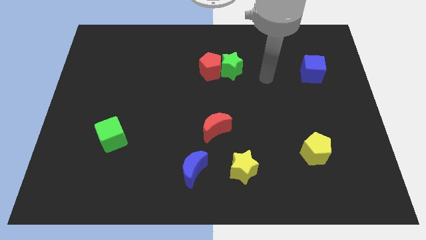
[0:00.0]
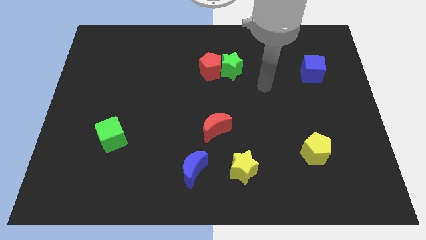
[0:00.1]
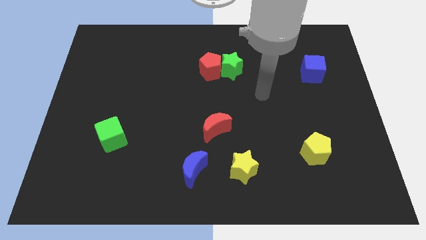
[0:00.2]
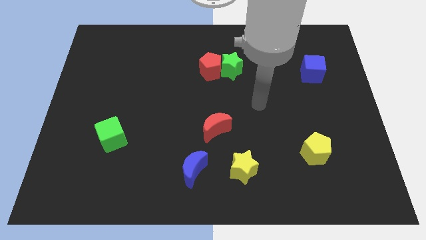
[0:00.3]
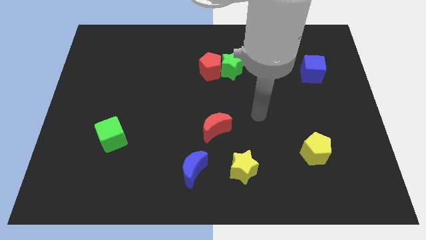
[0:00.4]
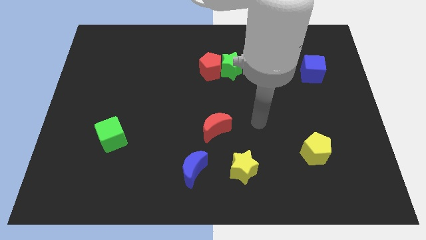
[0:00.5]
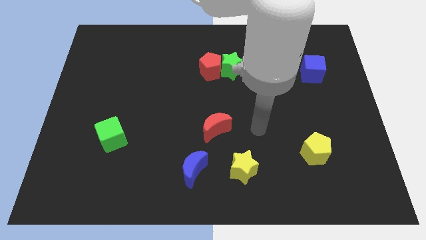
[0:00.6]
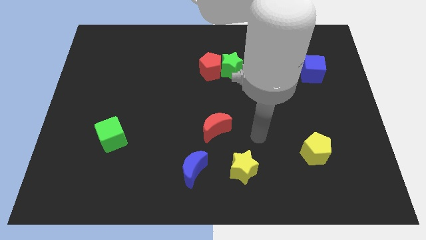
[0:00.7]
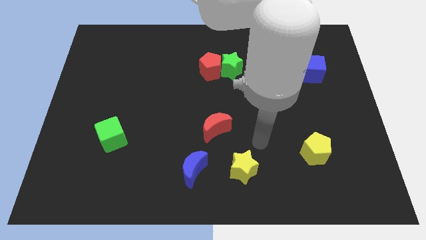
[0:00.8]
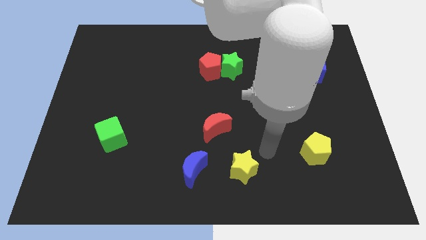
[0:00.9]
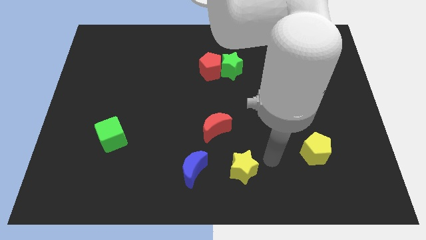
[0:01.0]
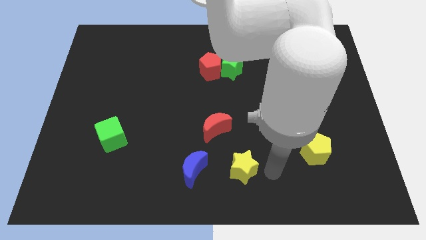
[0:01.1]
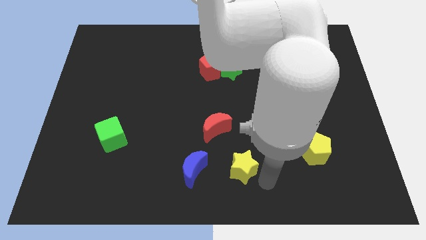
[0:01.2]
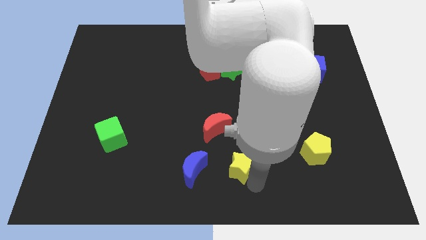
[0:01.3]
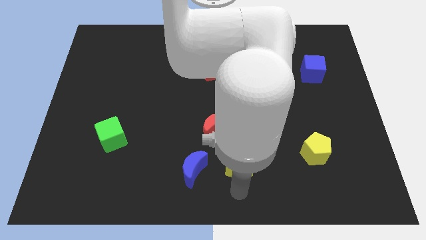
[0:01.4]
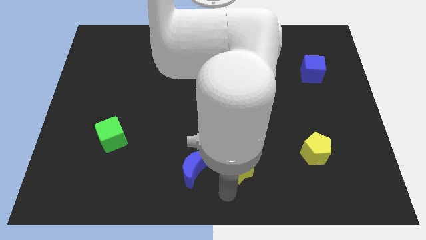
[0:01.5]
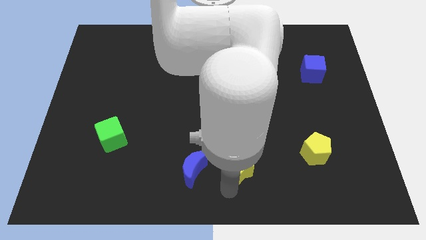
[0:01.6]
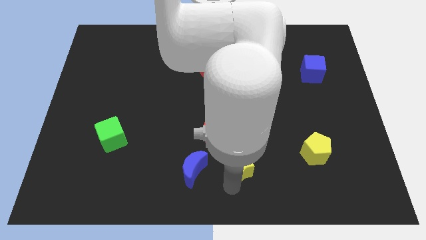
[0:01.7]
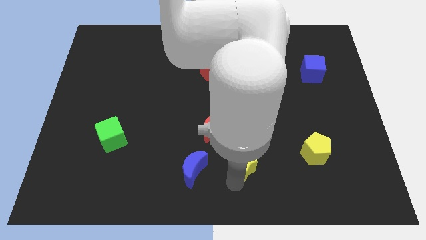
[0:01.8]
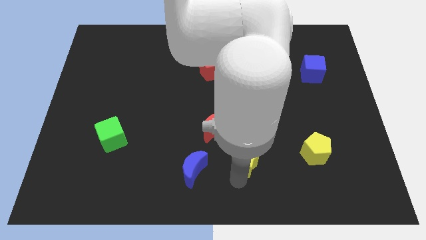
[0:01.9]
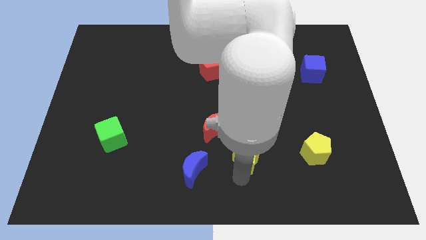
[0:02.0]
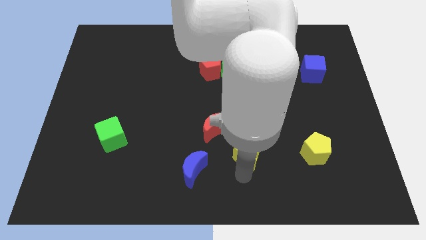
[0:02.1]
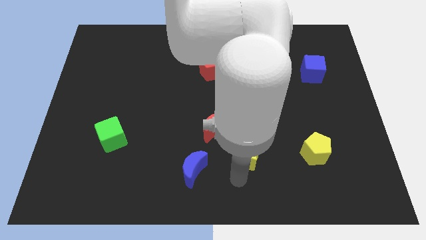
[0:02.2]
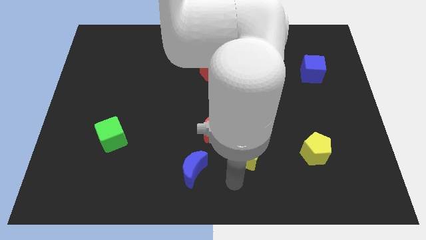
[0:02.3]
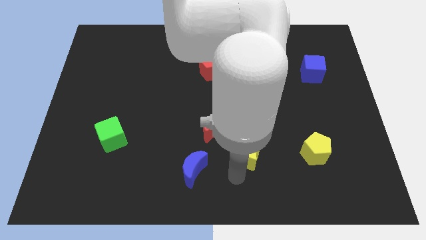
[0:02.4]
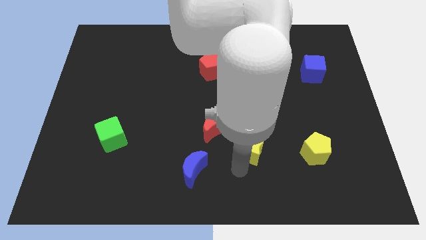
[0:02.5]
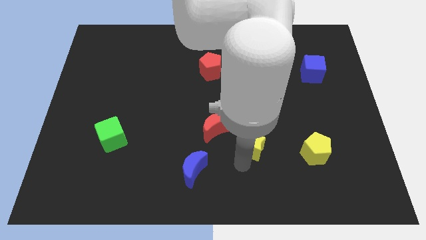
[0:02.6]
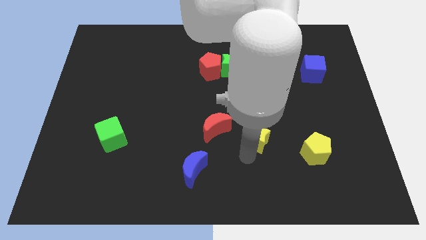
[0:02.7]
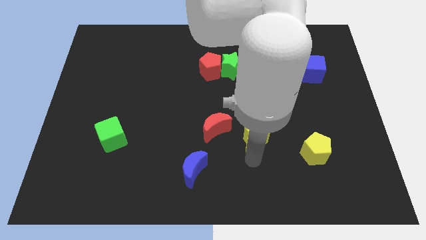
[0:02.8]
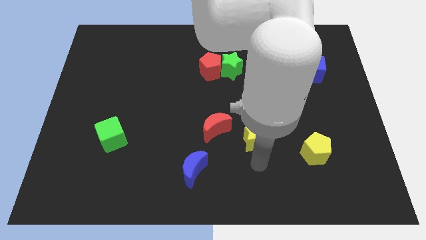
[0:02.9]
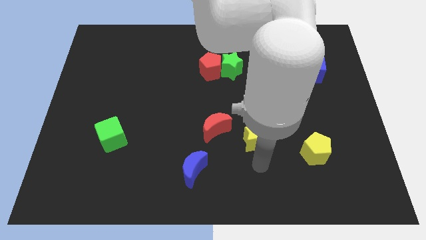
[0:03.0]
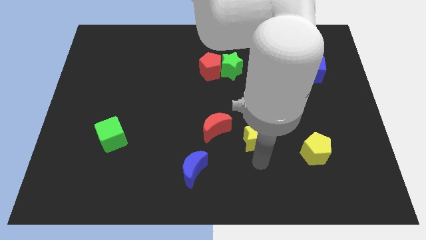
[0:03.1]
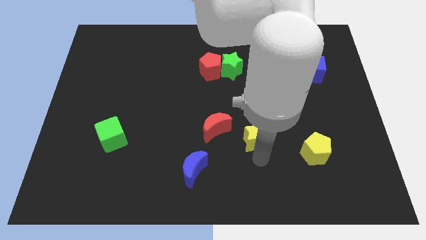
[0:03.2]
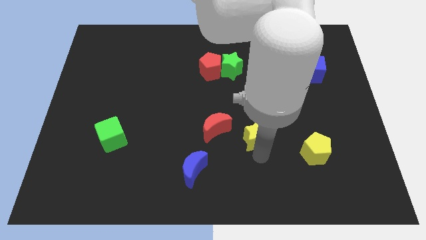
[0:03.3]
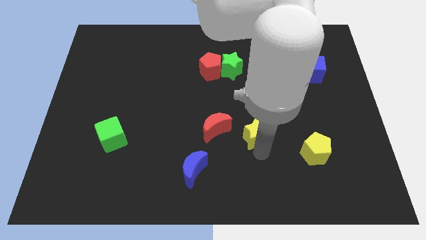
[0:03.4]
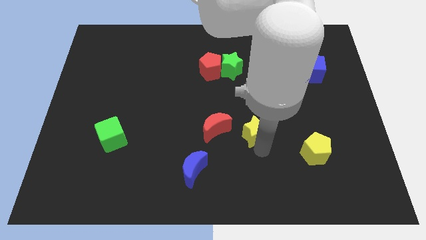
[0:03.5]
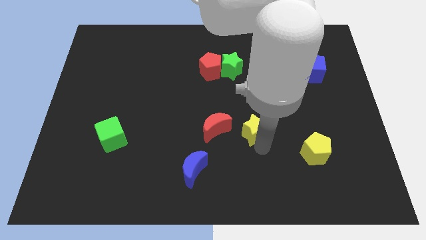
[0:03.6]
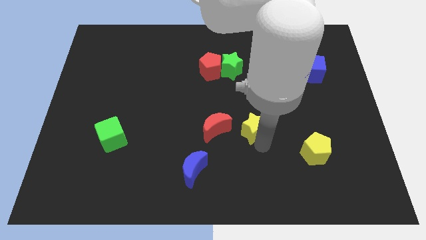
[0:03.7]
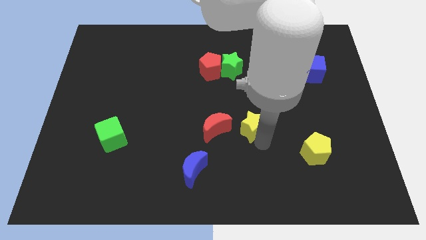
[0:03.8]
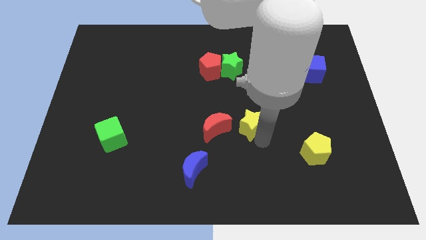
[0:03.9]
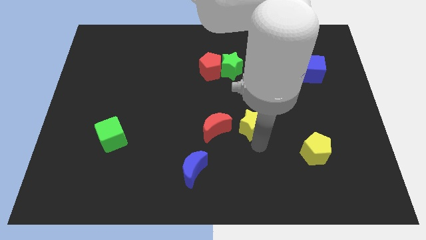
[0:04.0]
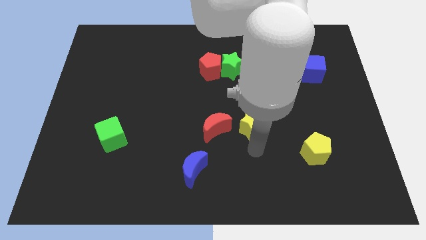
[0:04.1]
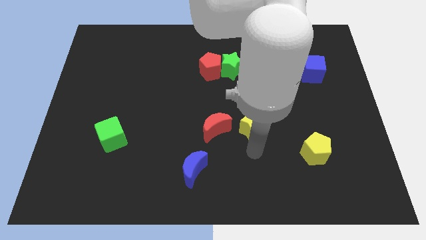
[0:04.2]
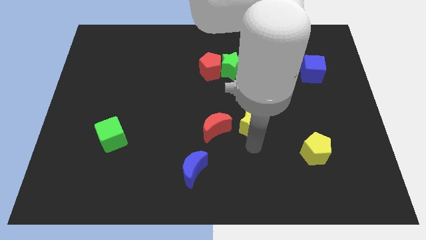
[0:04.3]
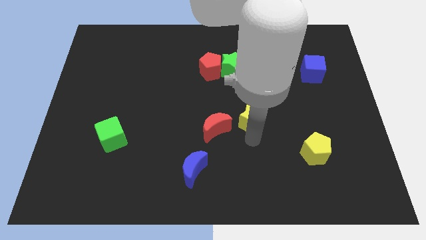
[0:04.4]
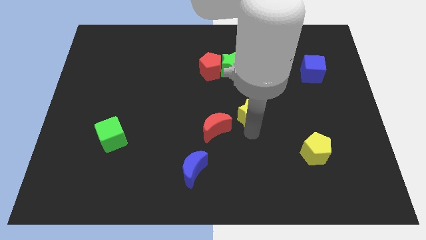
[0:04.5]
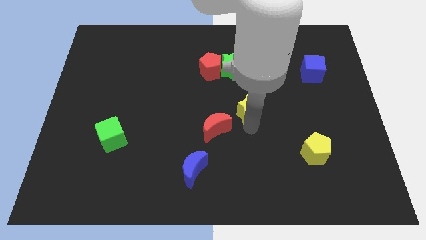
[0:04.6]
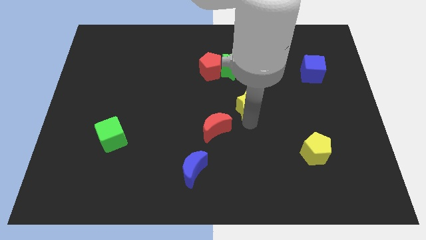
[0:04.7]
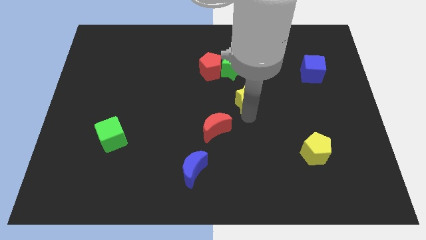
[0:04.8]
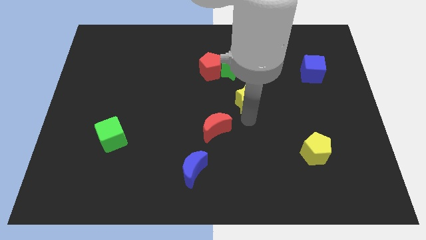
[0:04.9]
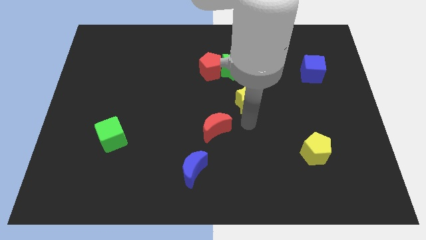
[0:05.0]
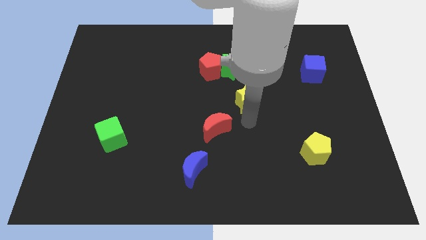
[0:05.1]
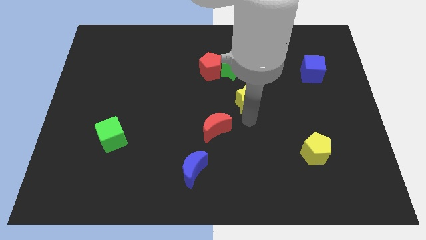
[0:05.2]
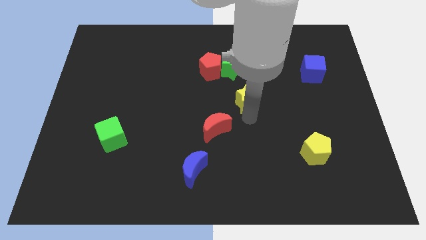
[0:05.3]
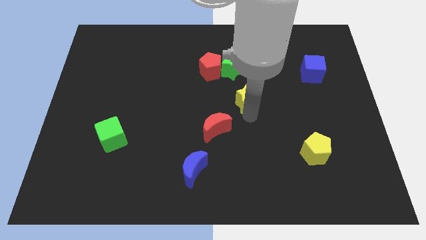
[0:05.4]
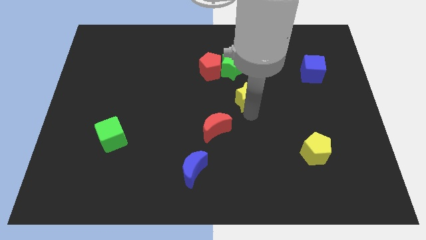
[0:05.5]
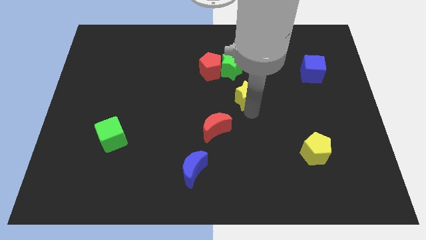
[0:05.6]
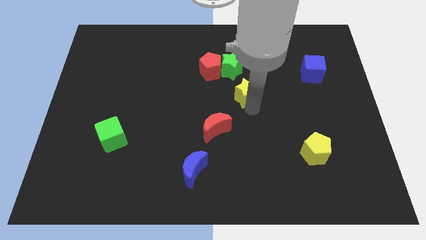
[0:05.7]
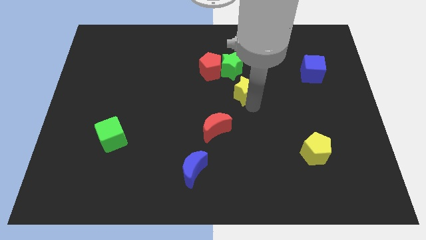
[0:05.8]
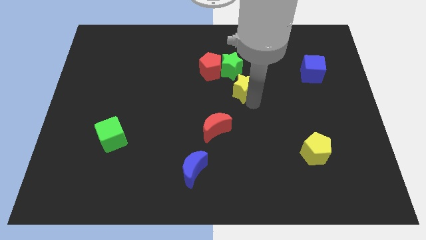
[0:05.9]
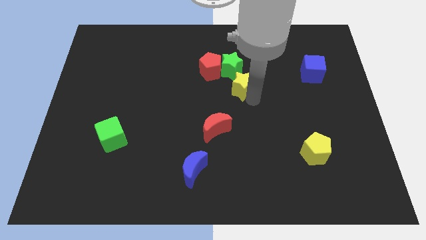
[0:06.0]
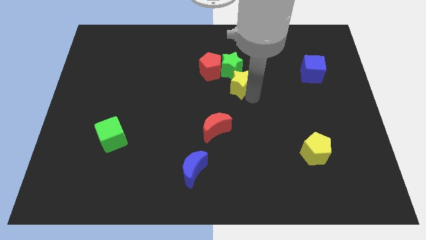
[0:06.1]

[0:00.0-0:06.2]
put the yellow star towards the green star

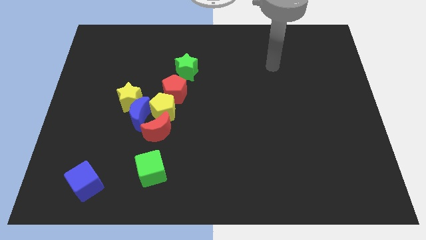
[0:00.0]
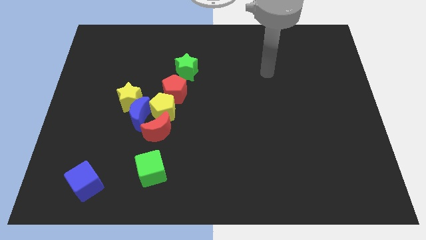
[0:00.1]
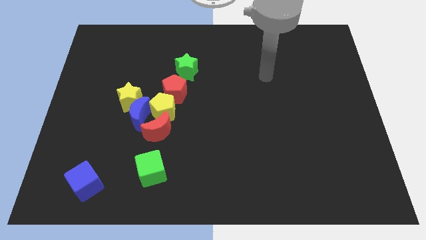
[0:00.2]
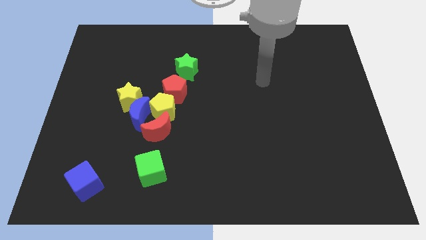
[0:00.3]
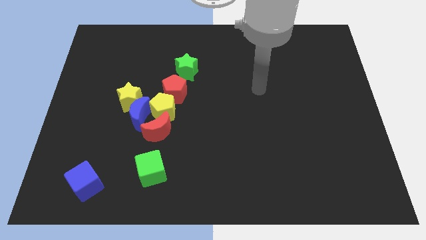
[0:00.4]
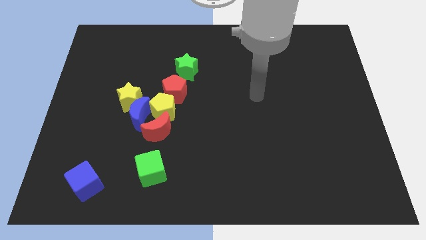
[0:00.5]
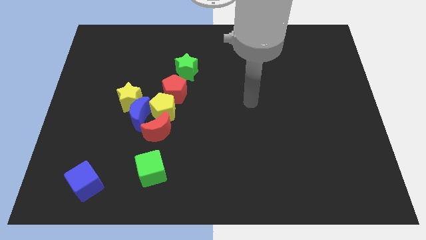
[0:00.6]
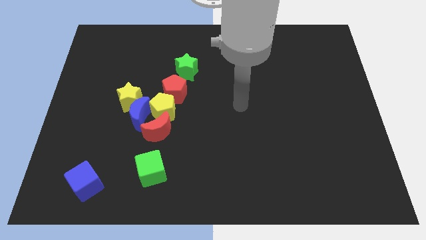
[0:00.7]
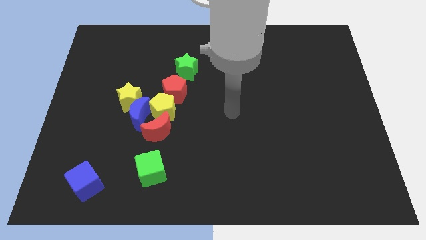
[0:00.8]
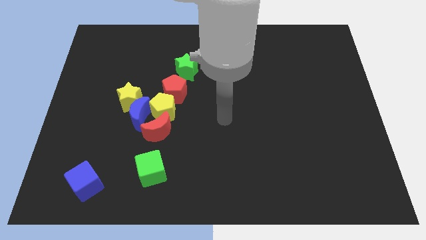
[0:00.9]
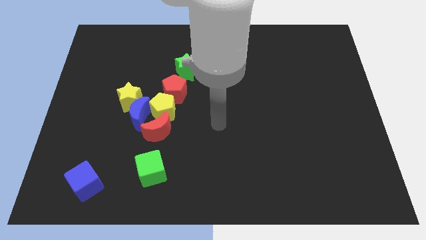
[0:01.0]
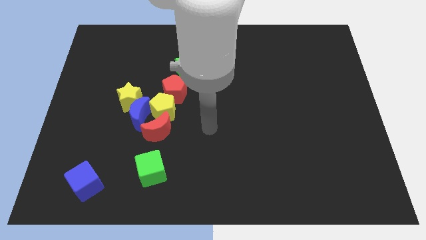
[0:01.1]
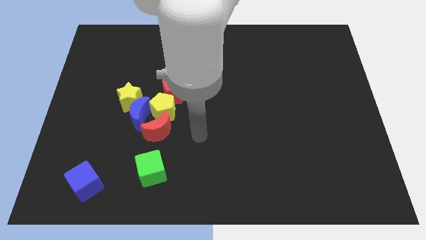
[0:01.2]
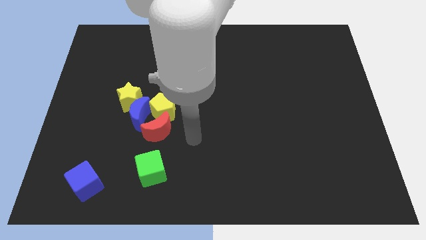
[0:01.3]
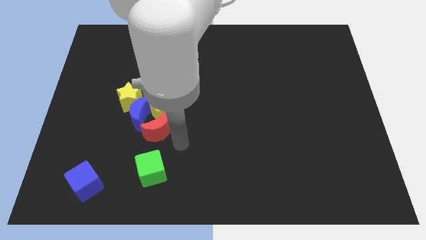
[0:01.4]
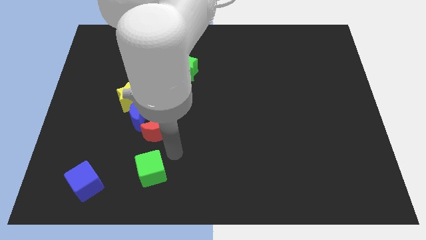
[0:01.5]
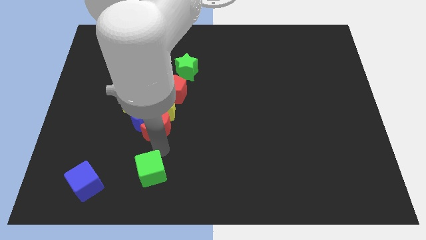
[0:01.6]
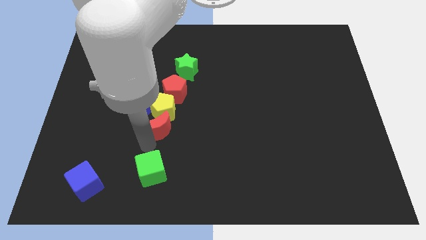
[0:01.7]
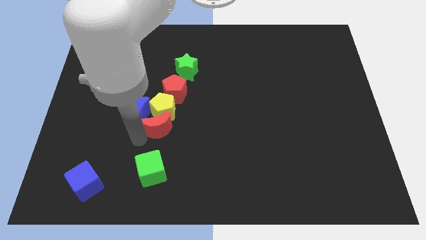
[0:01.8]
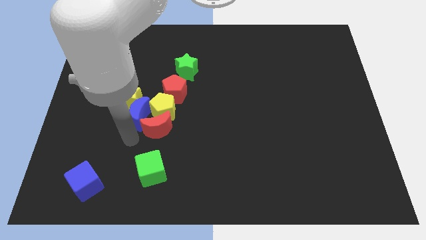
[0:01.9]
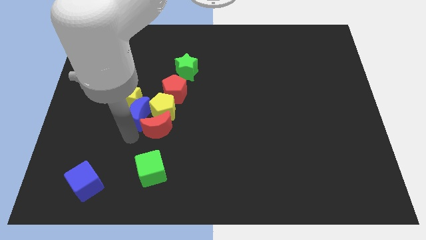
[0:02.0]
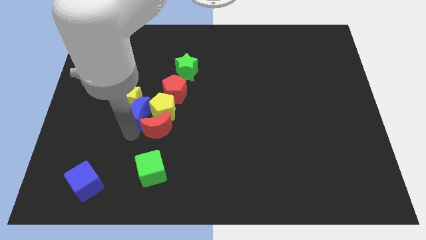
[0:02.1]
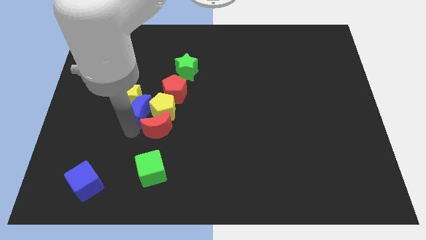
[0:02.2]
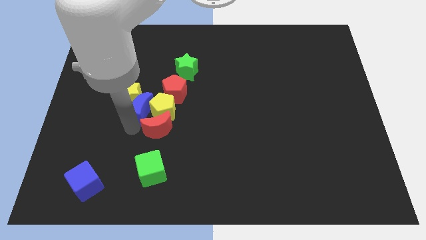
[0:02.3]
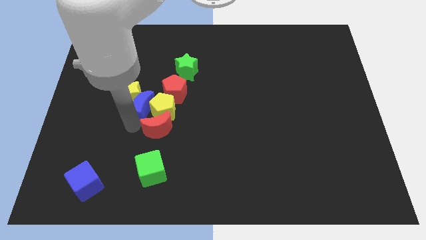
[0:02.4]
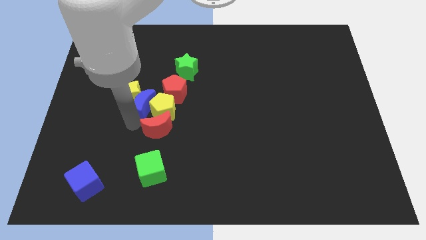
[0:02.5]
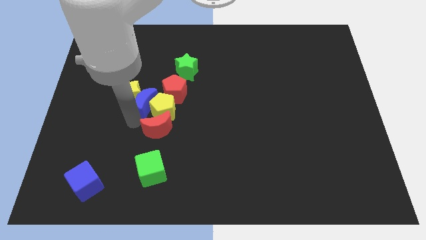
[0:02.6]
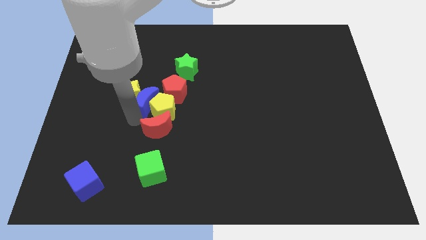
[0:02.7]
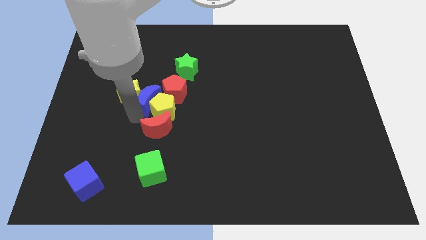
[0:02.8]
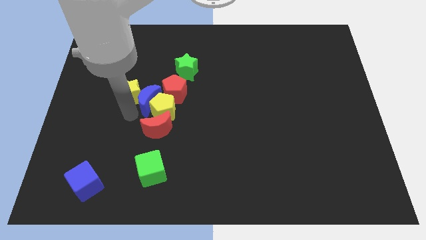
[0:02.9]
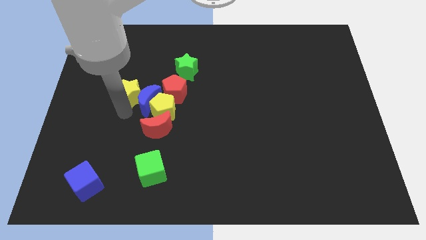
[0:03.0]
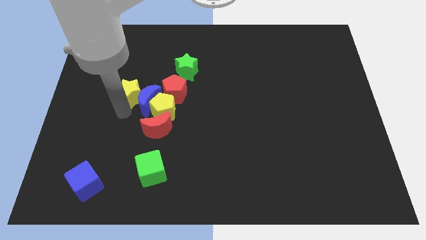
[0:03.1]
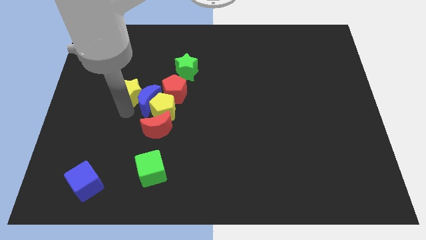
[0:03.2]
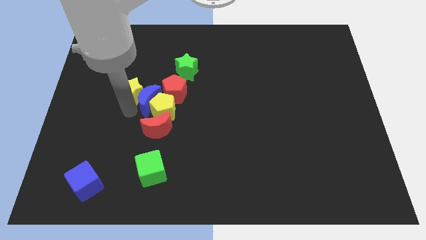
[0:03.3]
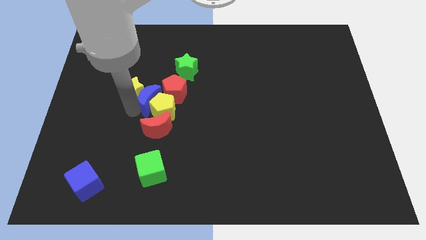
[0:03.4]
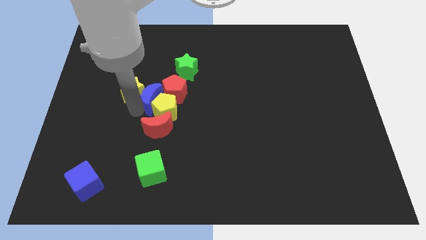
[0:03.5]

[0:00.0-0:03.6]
move the blue moon next to the red pentagon
